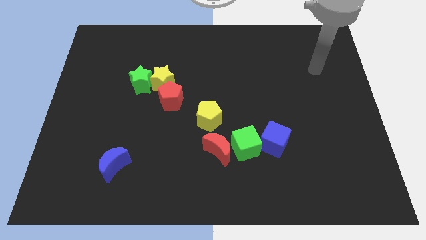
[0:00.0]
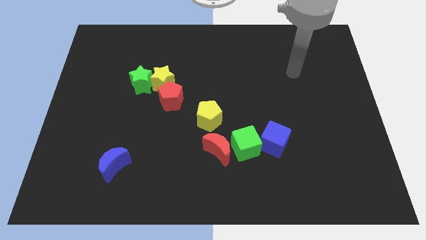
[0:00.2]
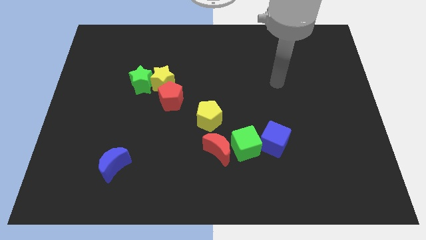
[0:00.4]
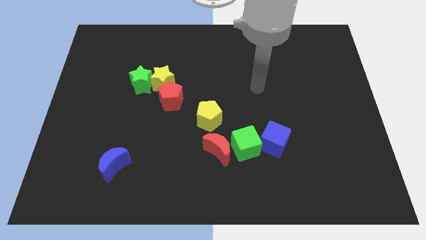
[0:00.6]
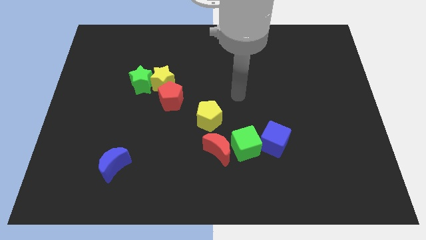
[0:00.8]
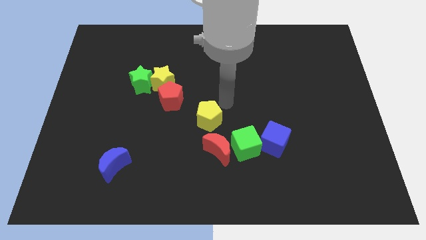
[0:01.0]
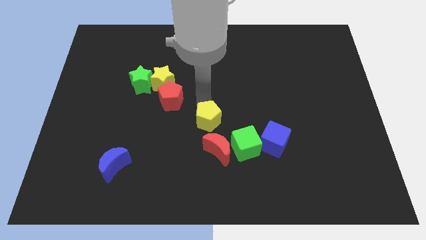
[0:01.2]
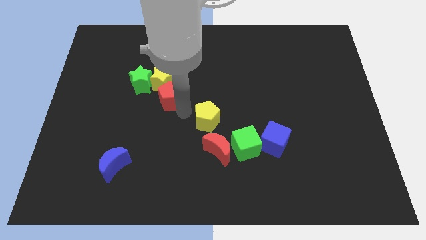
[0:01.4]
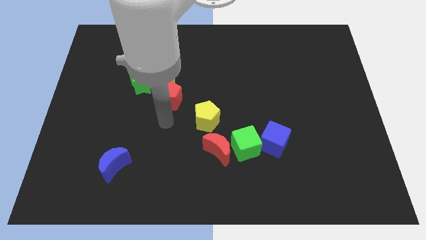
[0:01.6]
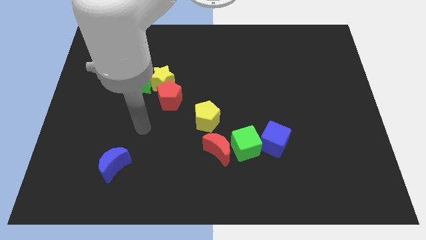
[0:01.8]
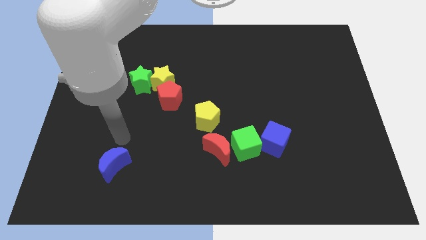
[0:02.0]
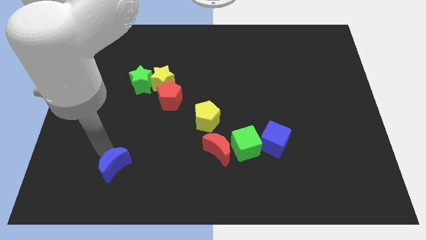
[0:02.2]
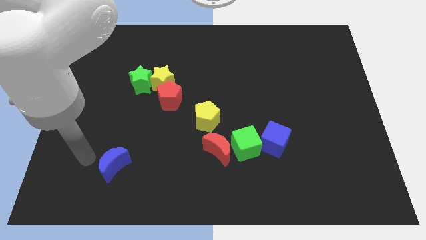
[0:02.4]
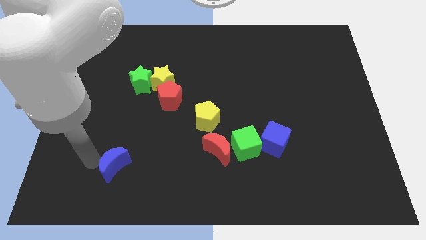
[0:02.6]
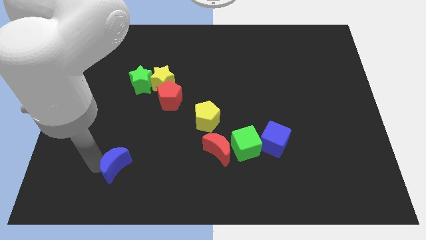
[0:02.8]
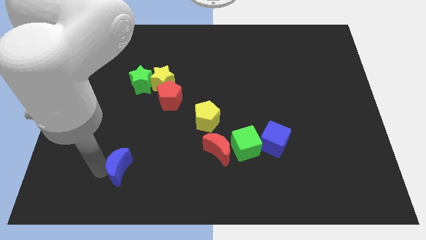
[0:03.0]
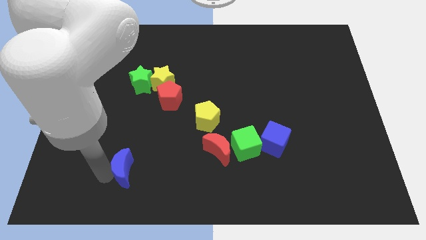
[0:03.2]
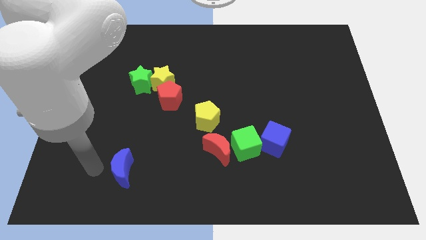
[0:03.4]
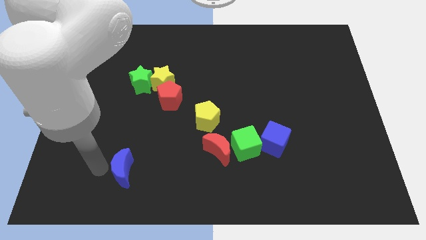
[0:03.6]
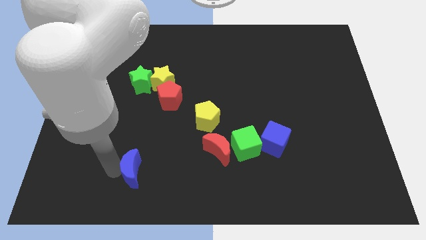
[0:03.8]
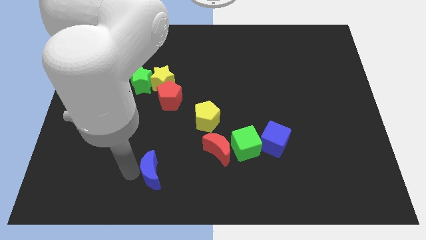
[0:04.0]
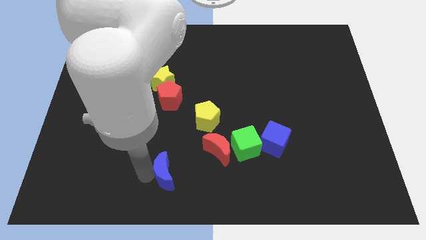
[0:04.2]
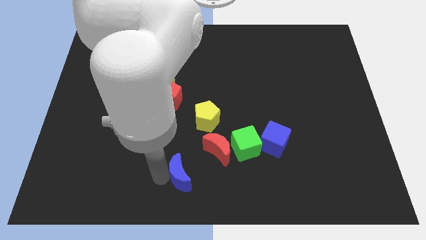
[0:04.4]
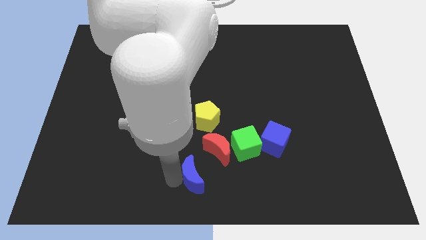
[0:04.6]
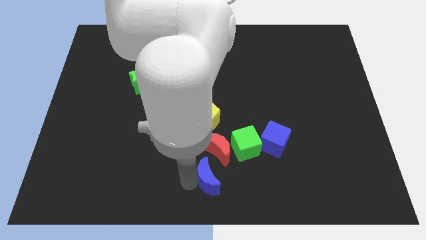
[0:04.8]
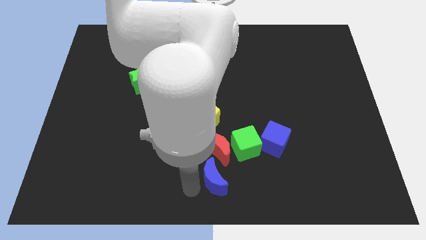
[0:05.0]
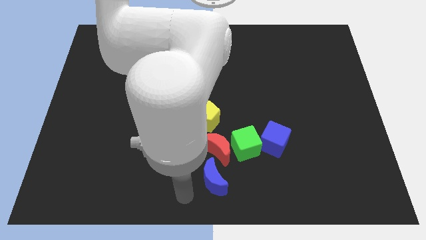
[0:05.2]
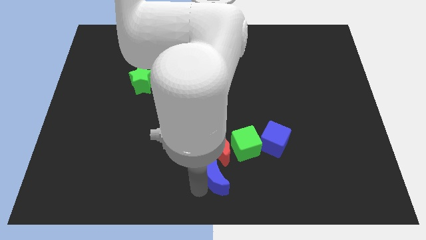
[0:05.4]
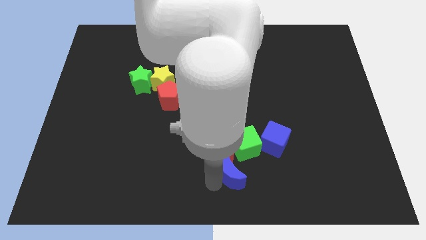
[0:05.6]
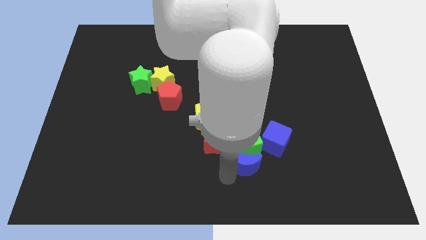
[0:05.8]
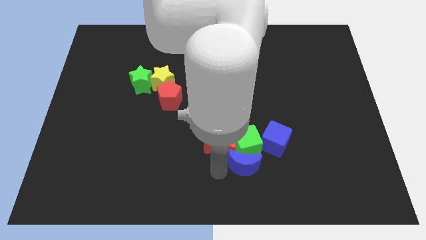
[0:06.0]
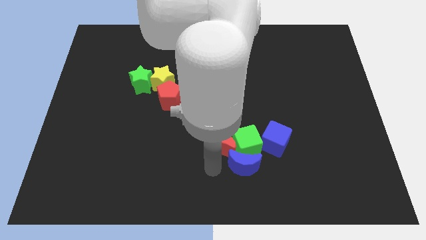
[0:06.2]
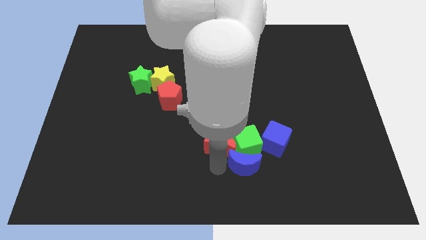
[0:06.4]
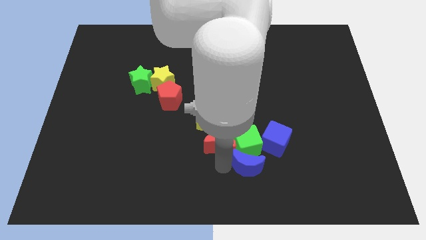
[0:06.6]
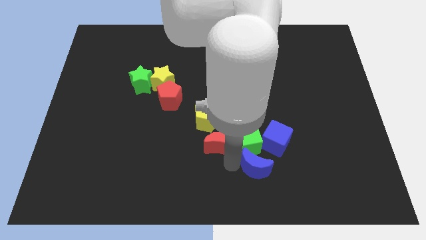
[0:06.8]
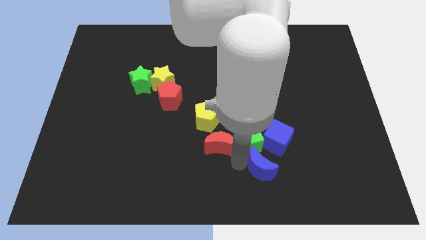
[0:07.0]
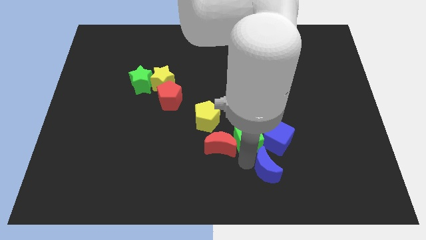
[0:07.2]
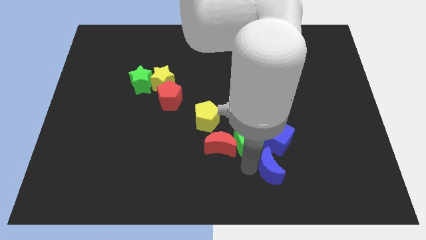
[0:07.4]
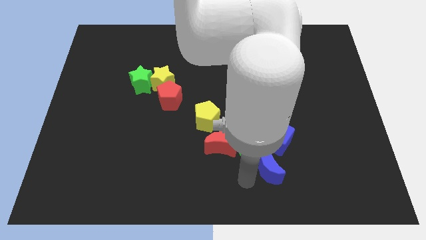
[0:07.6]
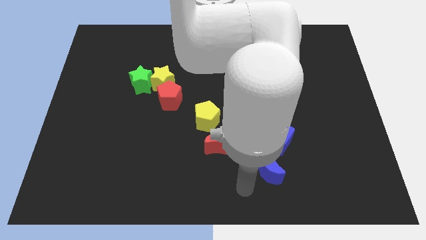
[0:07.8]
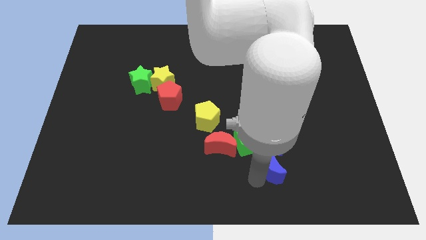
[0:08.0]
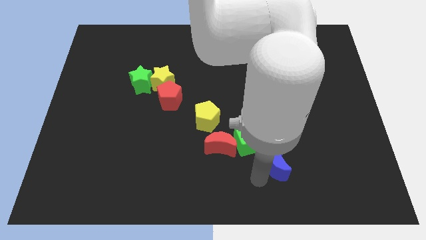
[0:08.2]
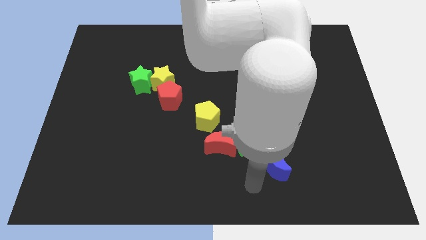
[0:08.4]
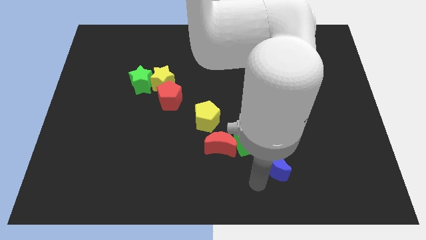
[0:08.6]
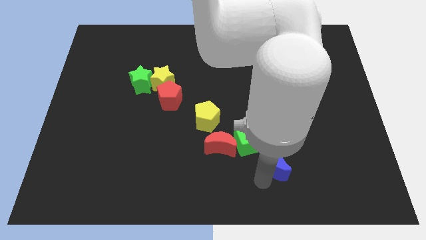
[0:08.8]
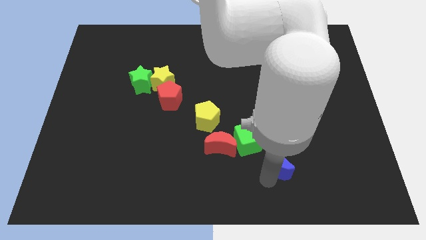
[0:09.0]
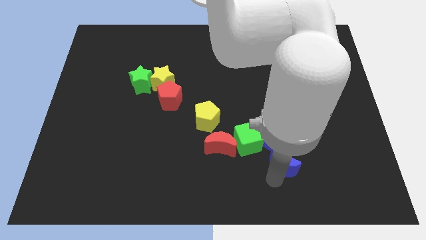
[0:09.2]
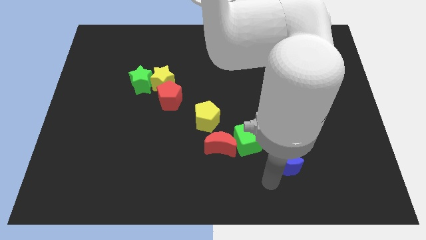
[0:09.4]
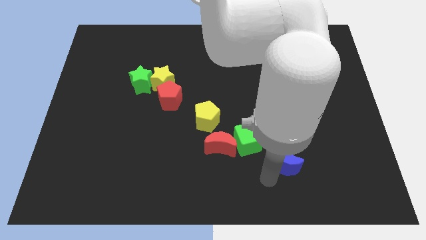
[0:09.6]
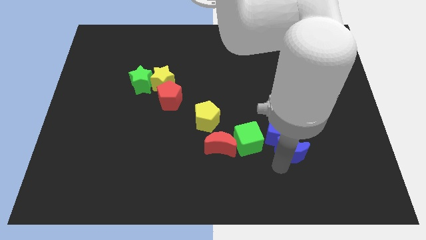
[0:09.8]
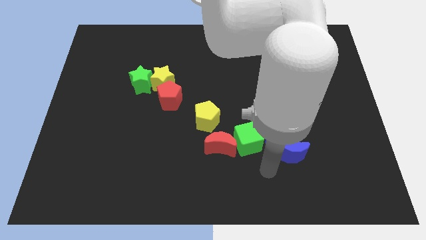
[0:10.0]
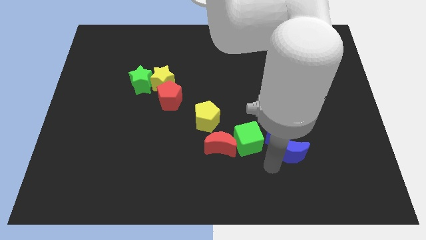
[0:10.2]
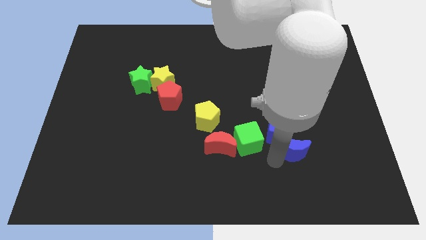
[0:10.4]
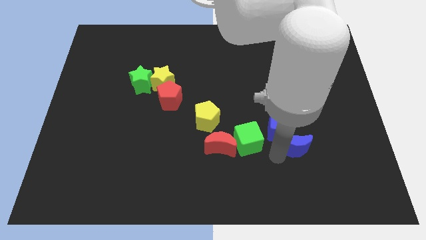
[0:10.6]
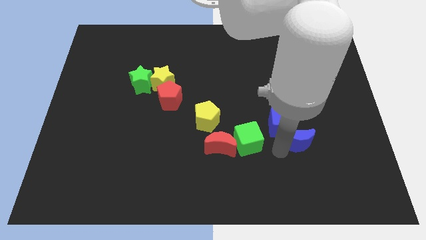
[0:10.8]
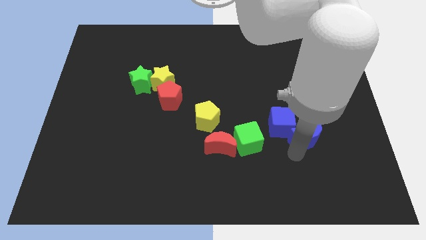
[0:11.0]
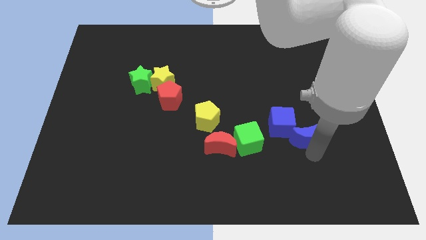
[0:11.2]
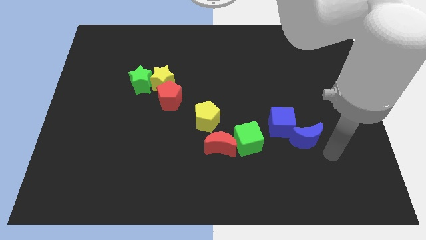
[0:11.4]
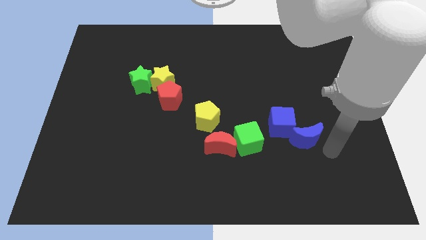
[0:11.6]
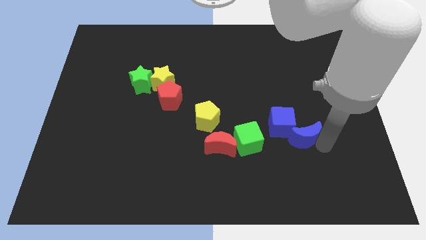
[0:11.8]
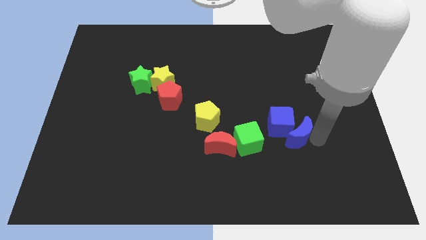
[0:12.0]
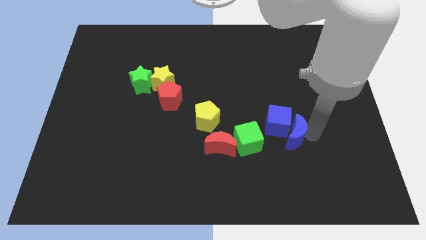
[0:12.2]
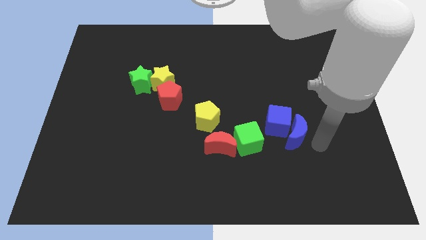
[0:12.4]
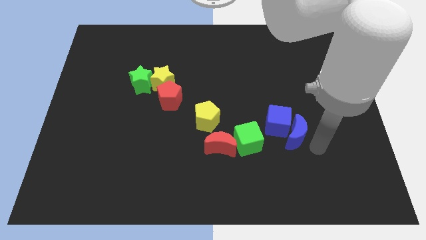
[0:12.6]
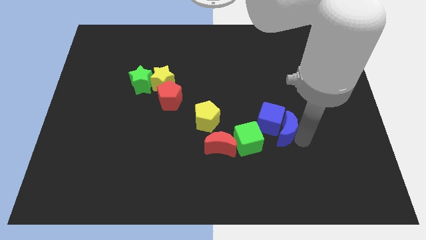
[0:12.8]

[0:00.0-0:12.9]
slide the blue moon diagonally up and to the right of the green cube

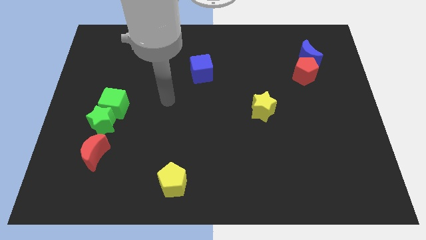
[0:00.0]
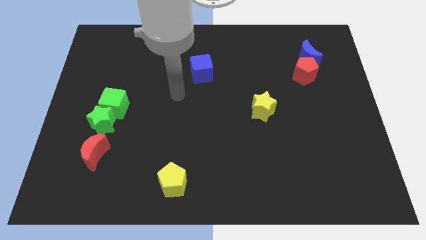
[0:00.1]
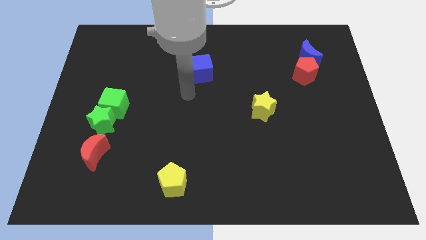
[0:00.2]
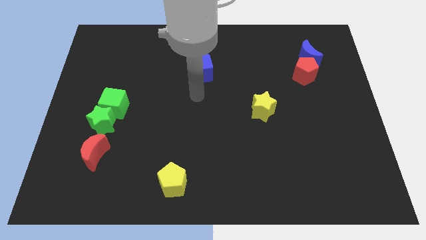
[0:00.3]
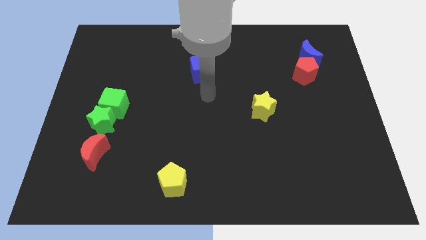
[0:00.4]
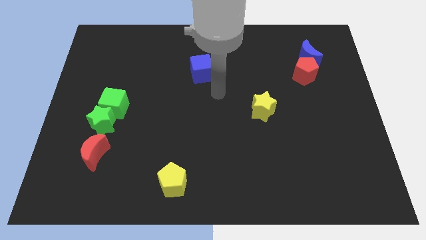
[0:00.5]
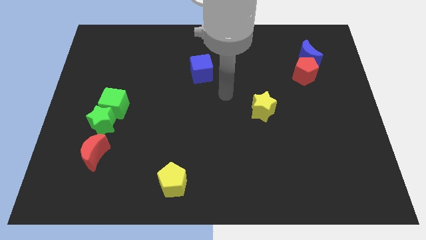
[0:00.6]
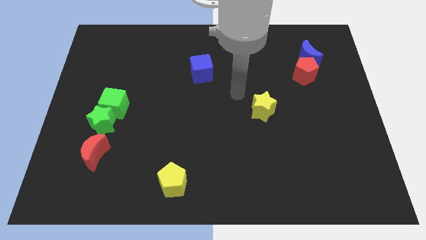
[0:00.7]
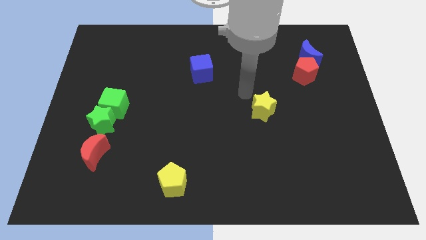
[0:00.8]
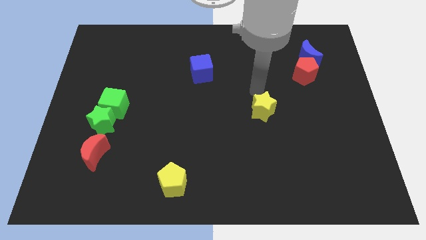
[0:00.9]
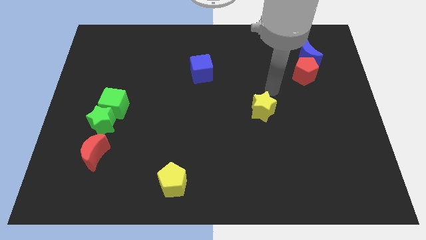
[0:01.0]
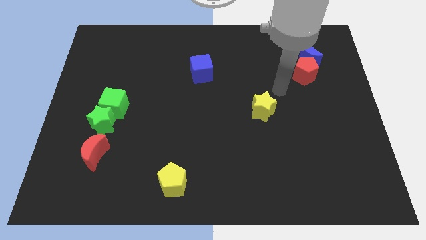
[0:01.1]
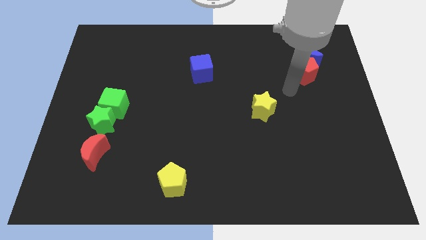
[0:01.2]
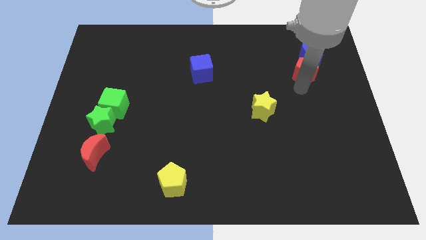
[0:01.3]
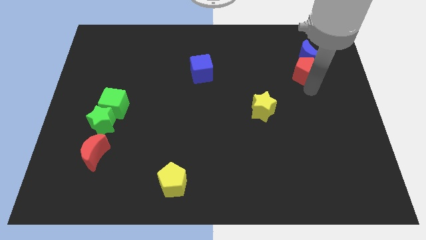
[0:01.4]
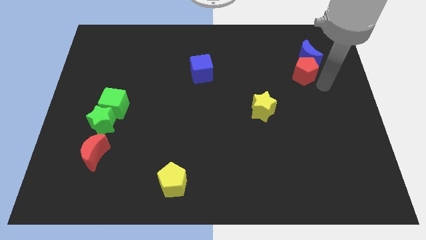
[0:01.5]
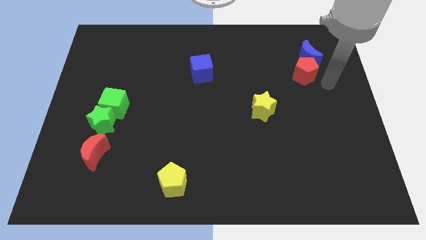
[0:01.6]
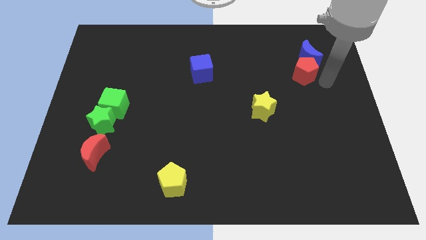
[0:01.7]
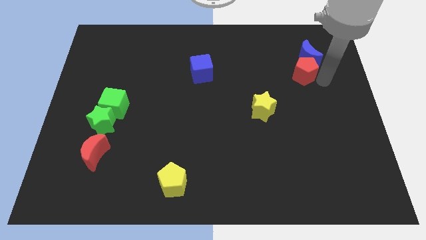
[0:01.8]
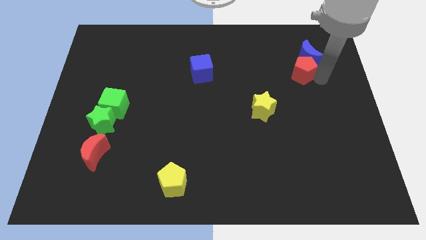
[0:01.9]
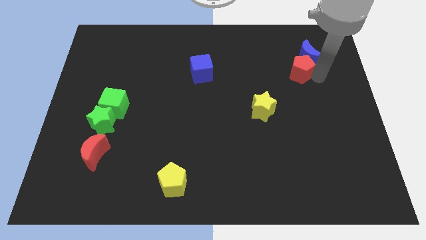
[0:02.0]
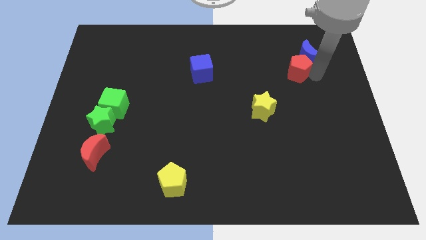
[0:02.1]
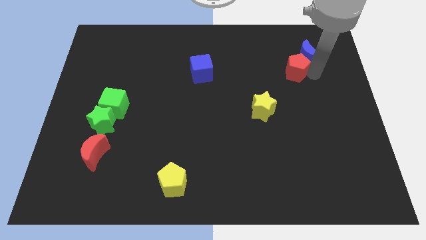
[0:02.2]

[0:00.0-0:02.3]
push the red pentagon to the left side of the blue moon
